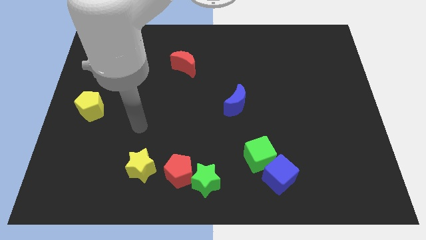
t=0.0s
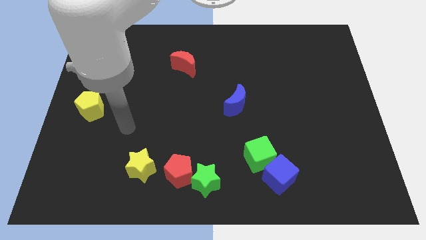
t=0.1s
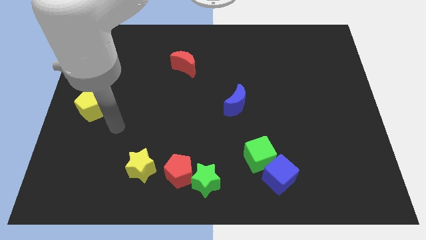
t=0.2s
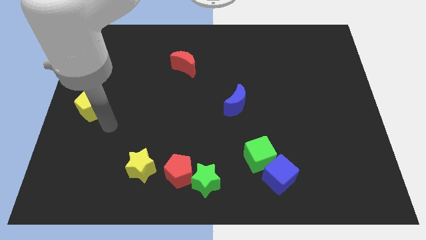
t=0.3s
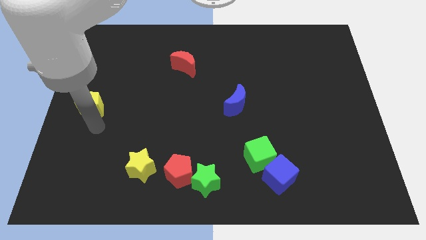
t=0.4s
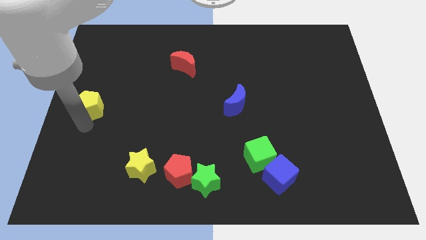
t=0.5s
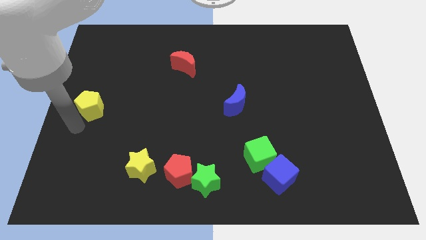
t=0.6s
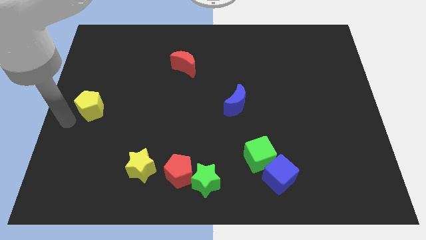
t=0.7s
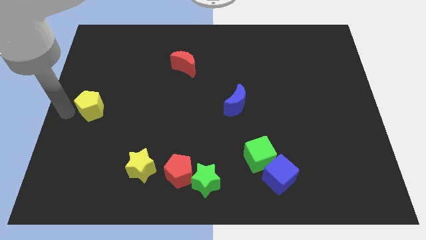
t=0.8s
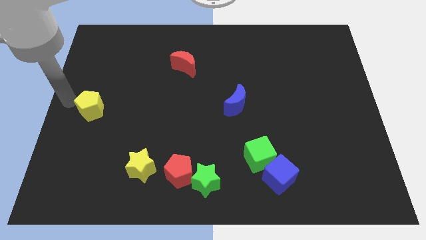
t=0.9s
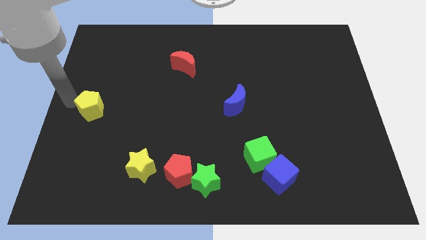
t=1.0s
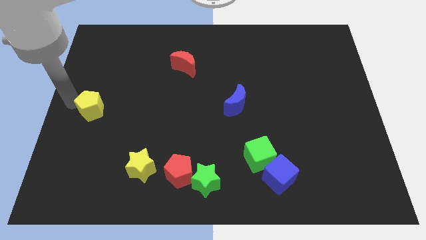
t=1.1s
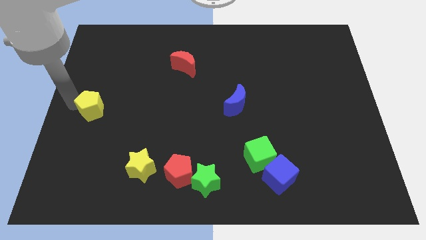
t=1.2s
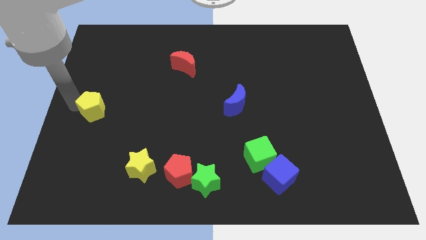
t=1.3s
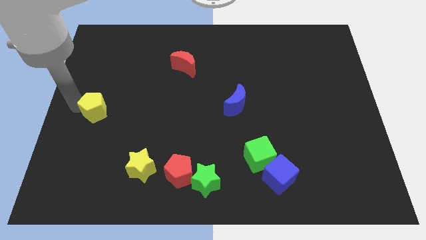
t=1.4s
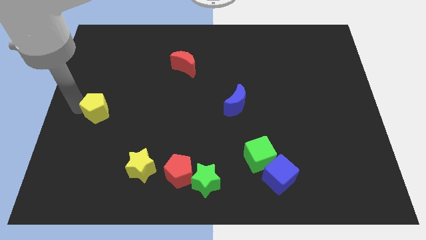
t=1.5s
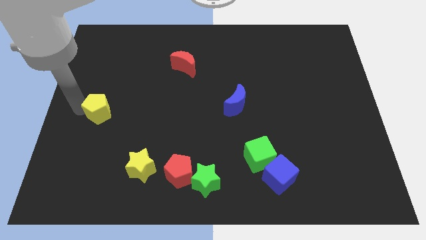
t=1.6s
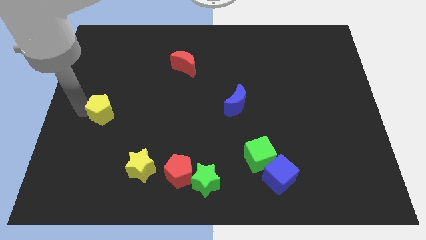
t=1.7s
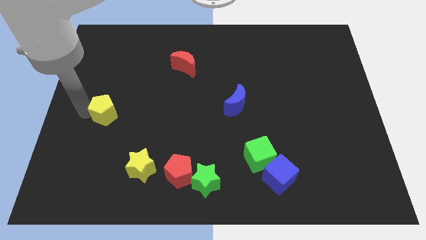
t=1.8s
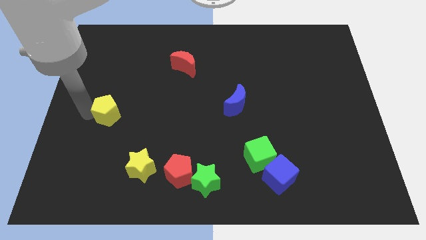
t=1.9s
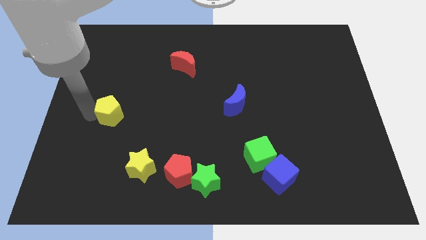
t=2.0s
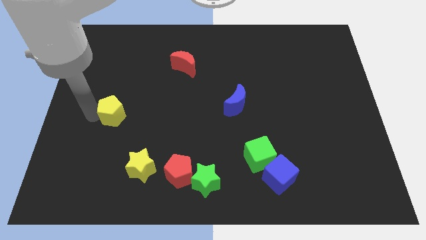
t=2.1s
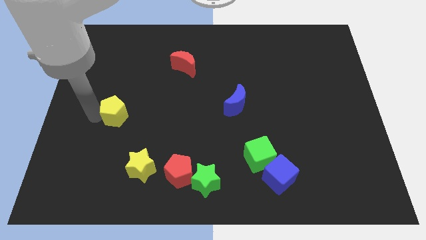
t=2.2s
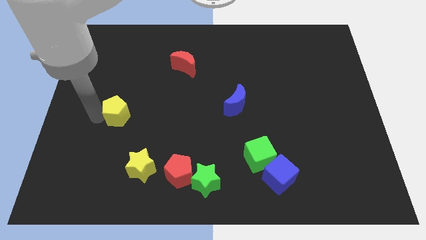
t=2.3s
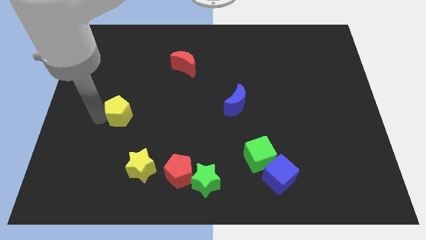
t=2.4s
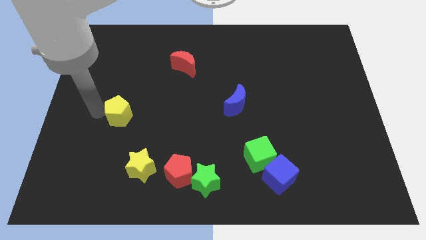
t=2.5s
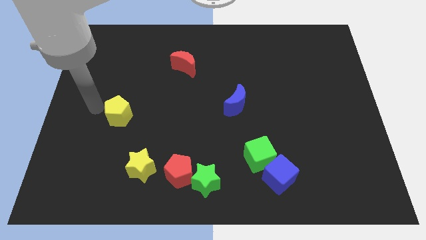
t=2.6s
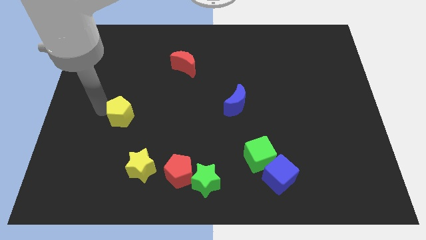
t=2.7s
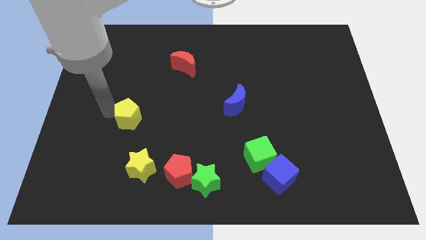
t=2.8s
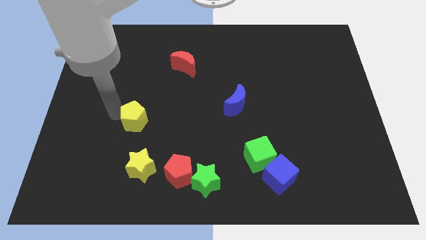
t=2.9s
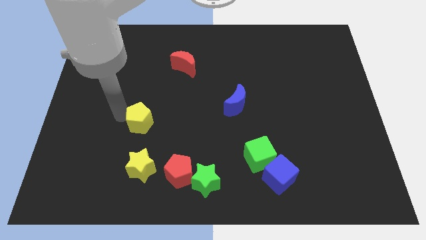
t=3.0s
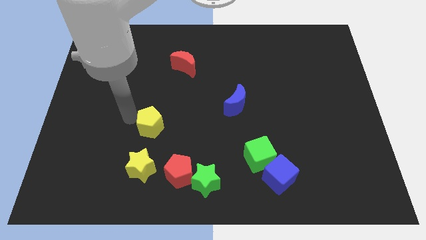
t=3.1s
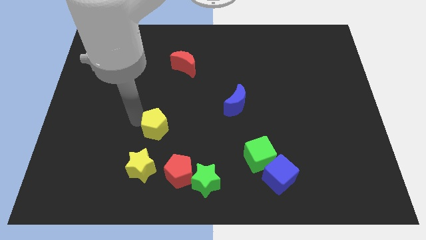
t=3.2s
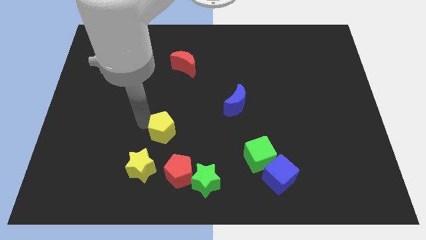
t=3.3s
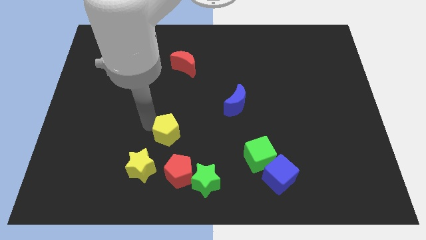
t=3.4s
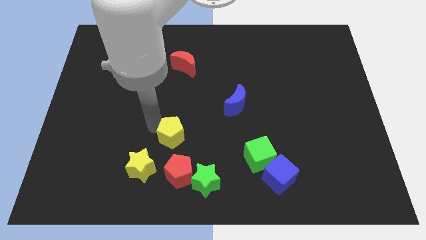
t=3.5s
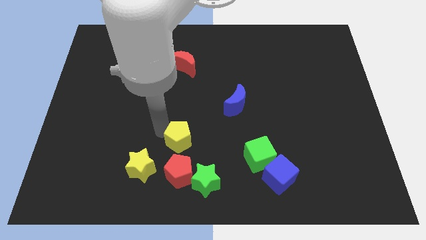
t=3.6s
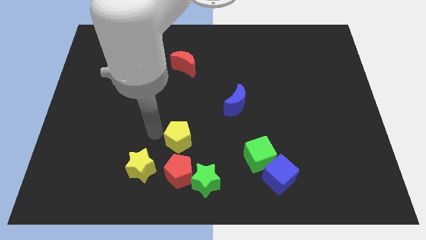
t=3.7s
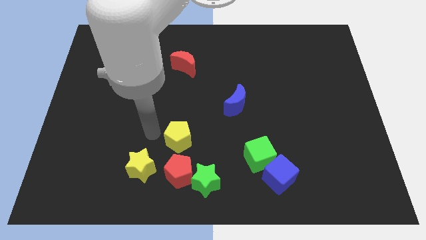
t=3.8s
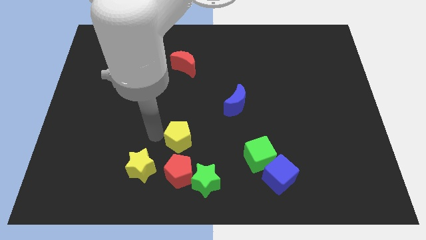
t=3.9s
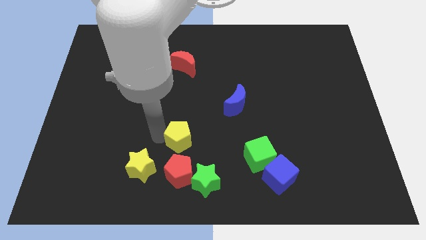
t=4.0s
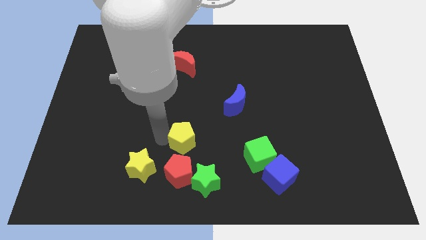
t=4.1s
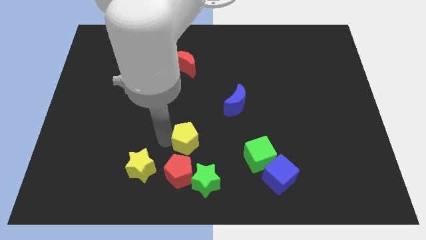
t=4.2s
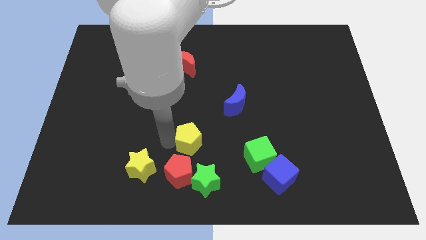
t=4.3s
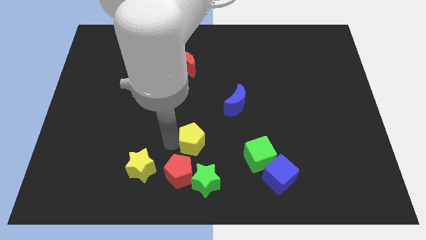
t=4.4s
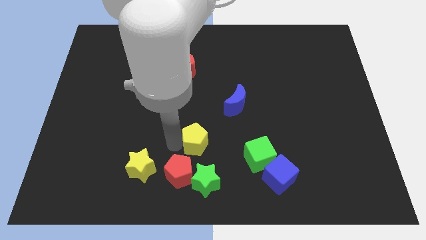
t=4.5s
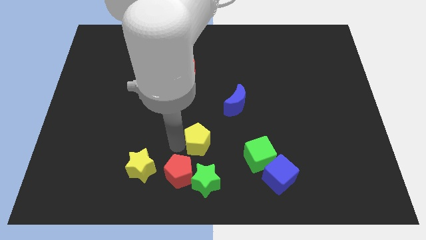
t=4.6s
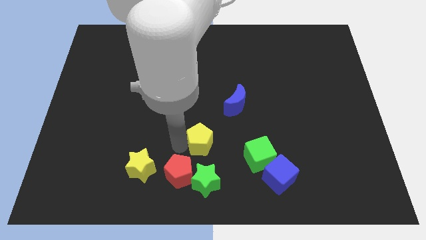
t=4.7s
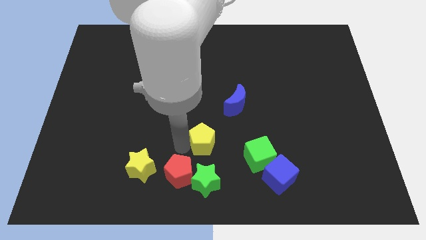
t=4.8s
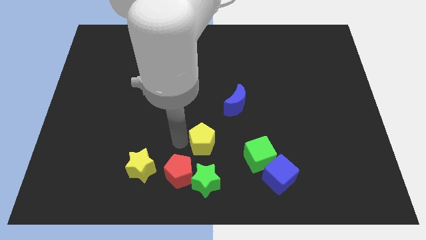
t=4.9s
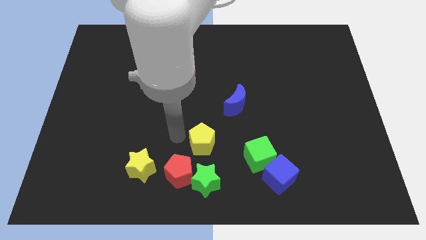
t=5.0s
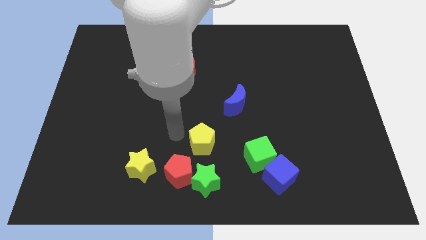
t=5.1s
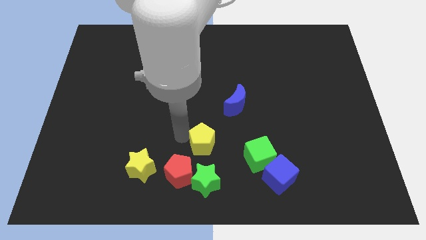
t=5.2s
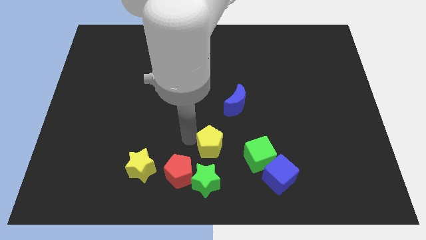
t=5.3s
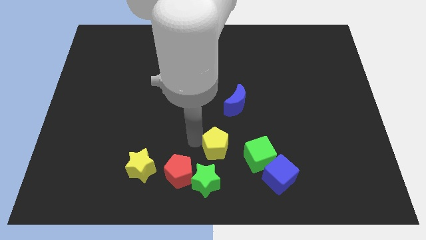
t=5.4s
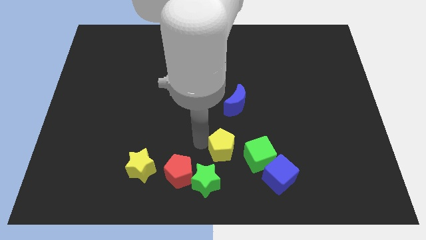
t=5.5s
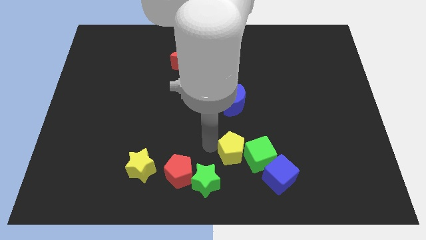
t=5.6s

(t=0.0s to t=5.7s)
move the yellow pentagon next to the green cube

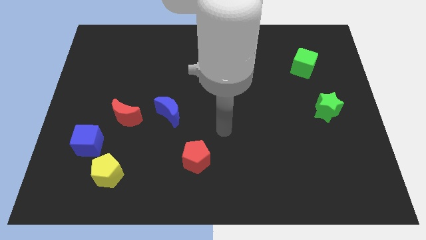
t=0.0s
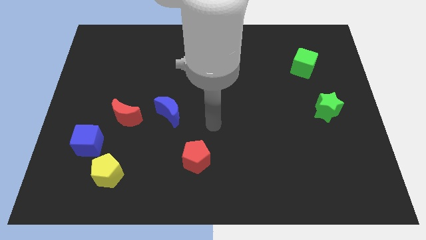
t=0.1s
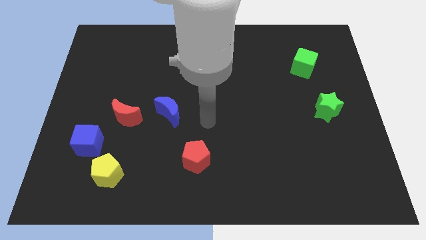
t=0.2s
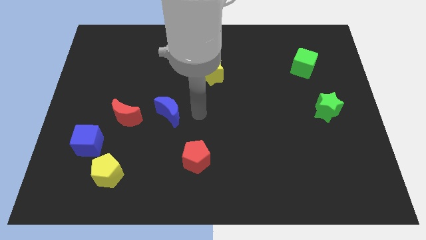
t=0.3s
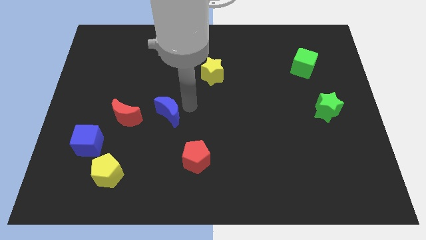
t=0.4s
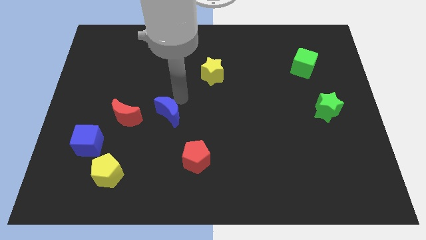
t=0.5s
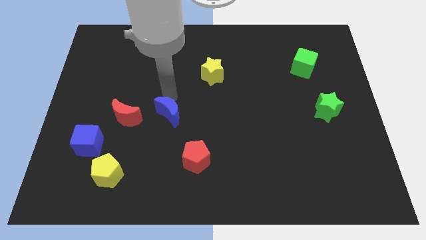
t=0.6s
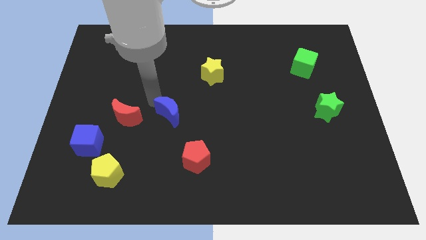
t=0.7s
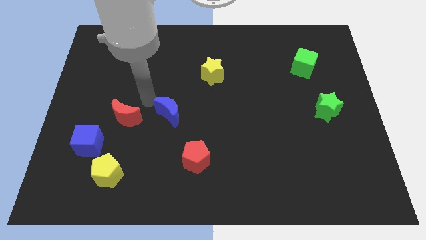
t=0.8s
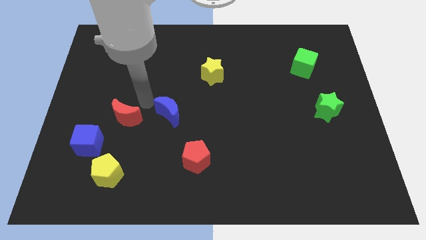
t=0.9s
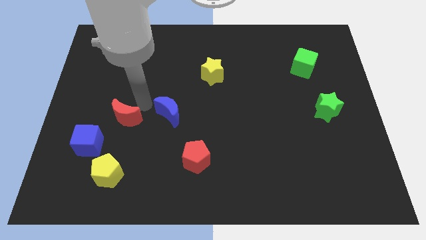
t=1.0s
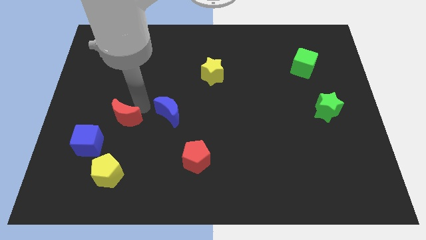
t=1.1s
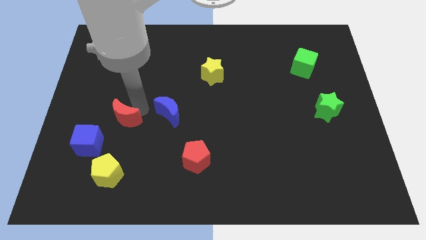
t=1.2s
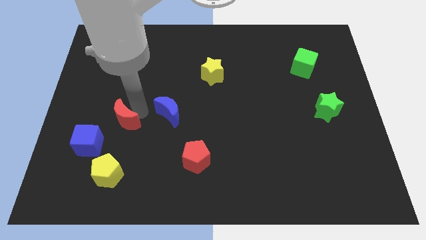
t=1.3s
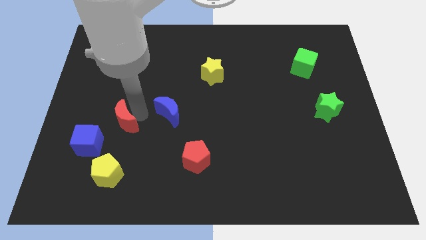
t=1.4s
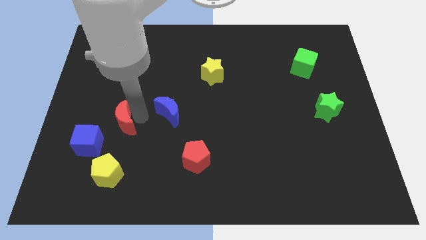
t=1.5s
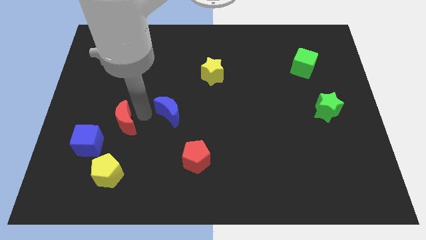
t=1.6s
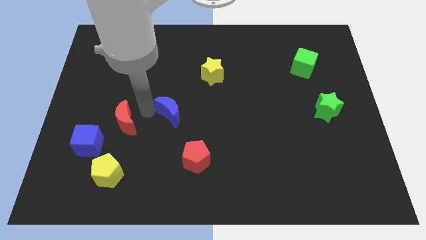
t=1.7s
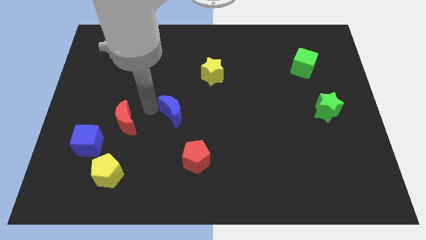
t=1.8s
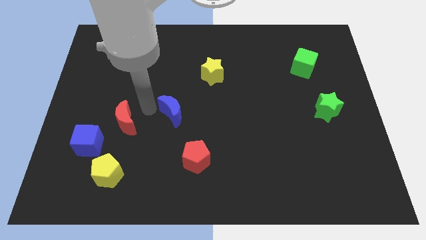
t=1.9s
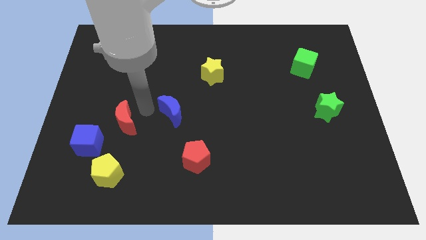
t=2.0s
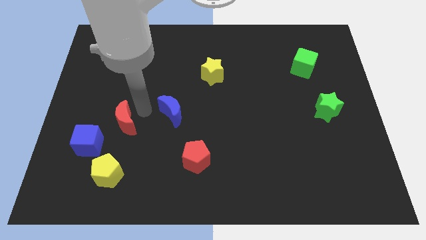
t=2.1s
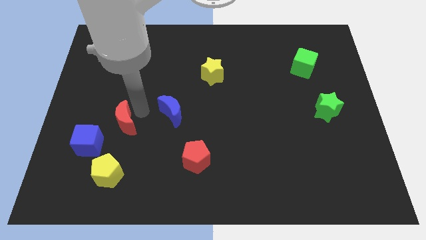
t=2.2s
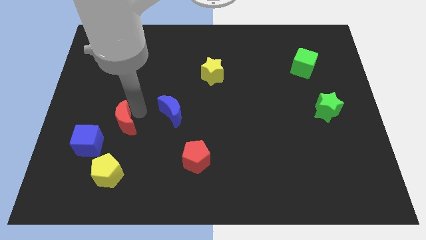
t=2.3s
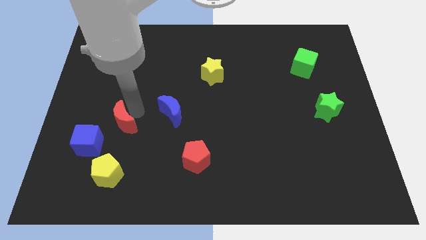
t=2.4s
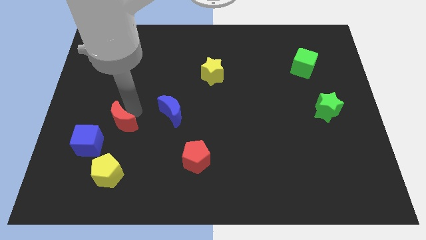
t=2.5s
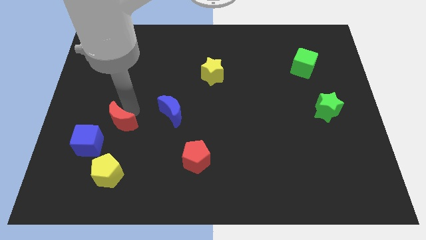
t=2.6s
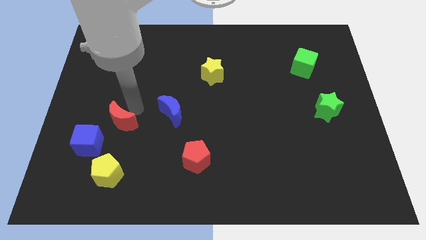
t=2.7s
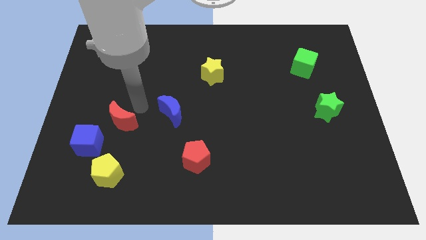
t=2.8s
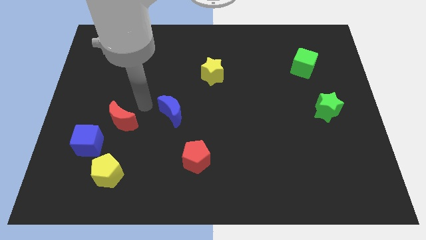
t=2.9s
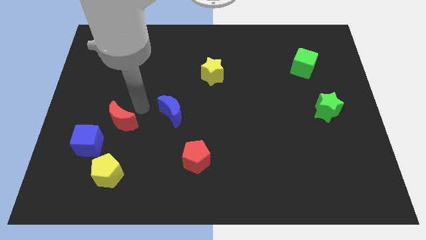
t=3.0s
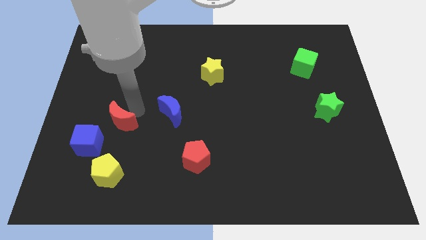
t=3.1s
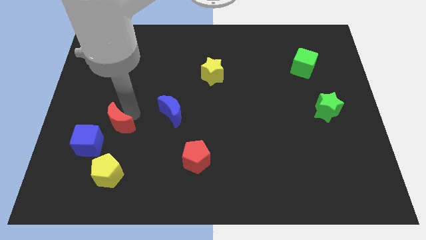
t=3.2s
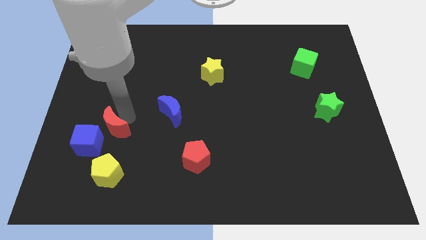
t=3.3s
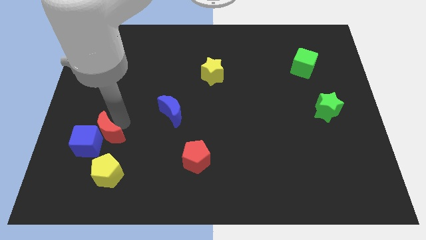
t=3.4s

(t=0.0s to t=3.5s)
move the red moon towards the blue cube
